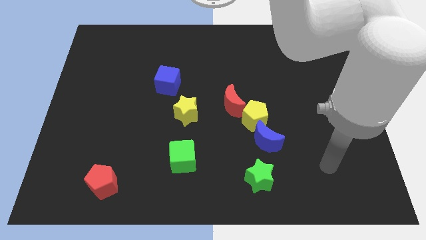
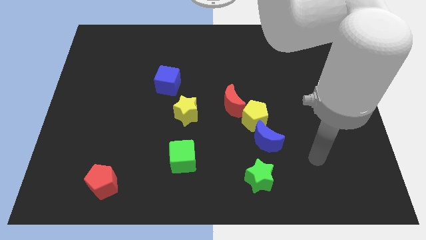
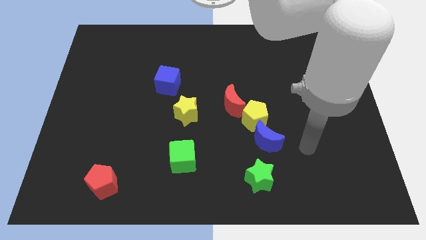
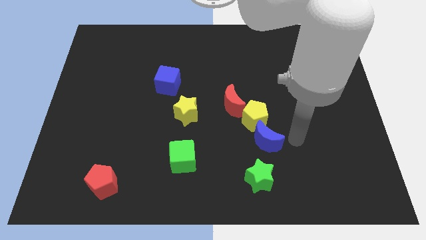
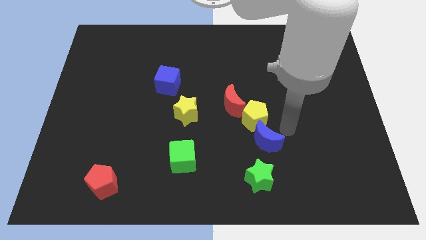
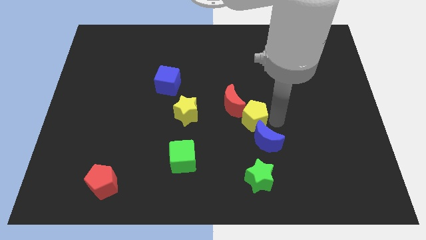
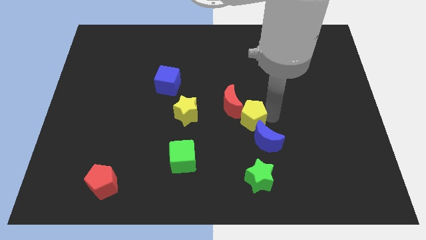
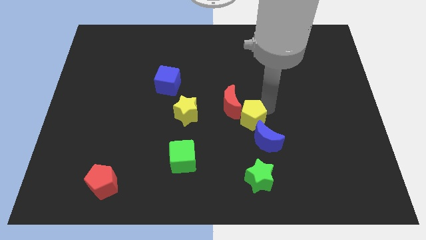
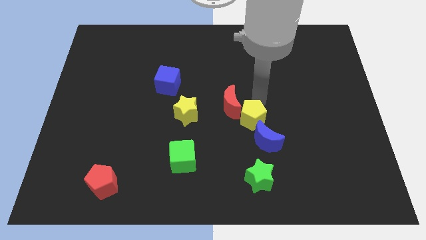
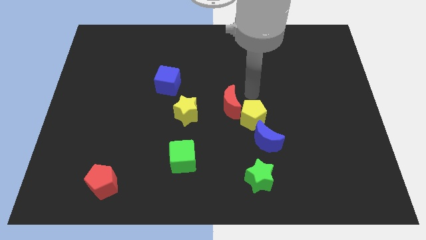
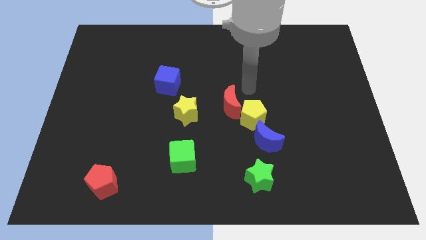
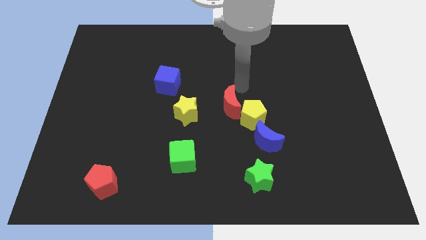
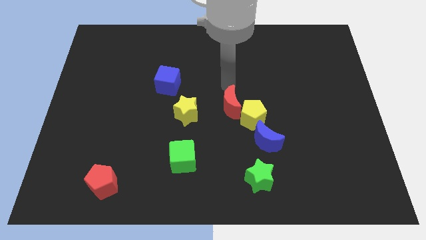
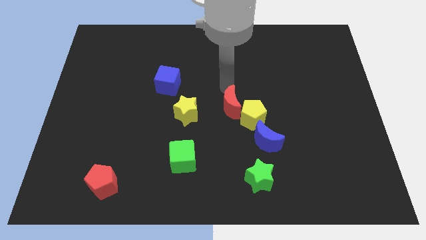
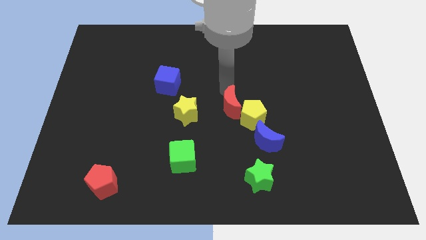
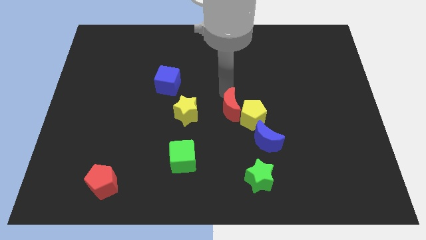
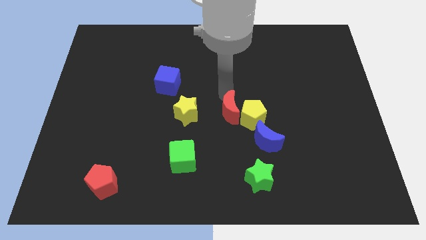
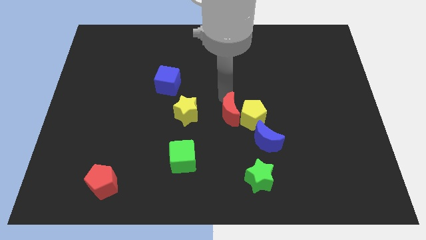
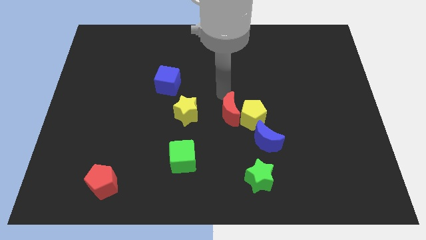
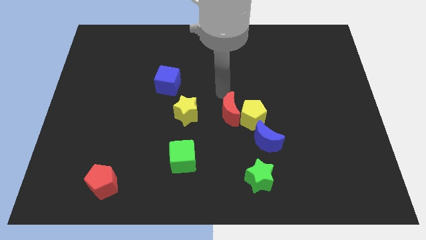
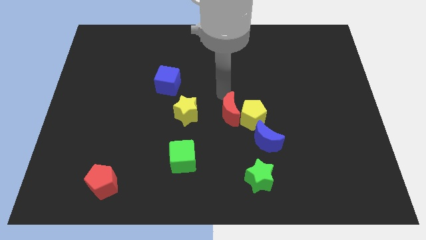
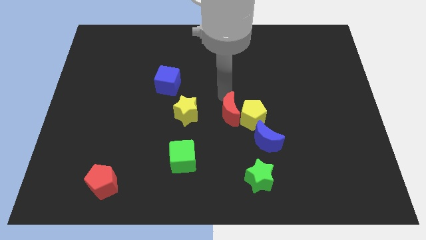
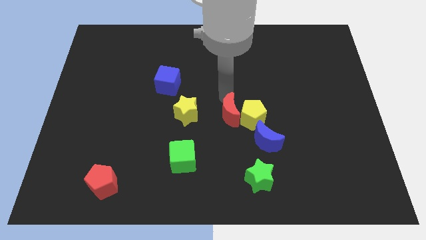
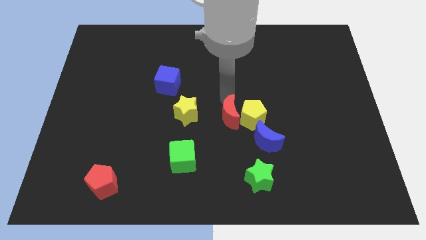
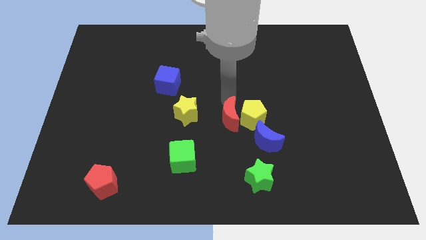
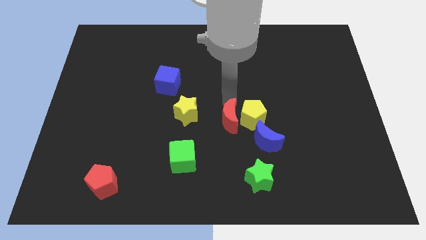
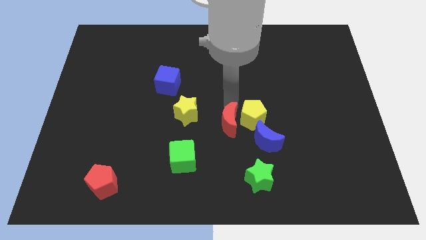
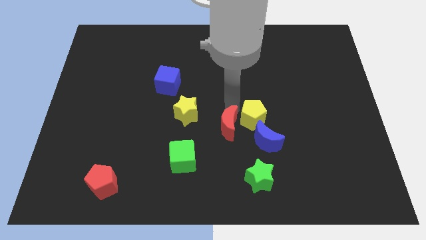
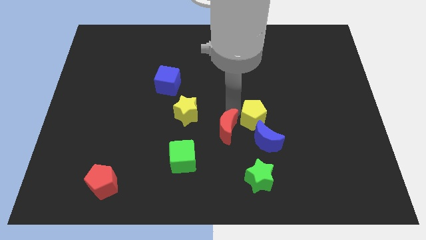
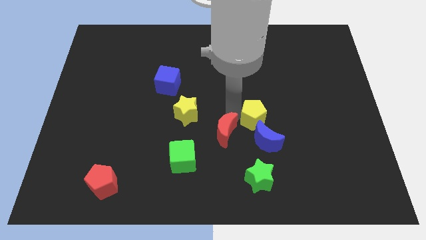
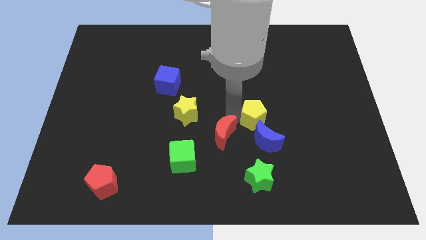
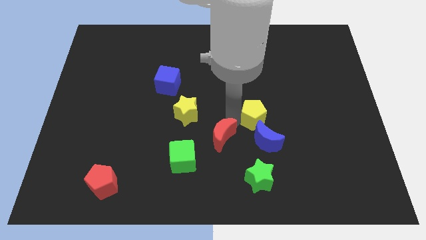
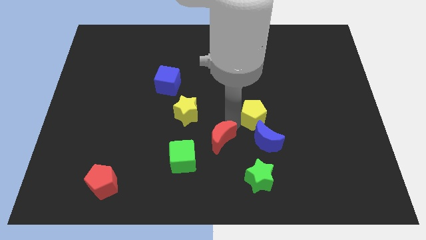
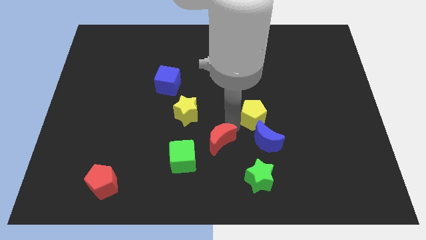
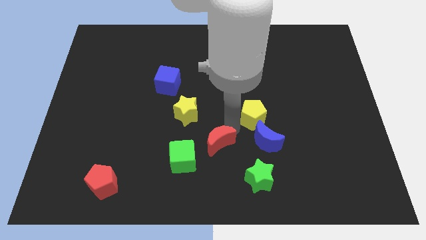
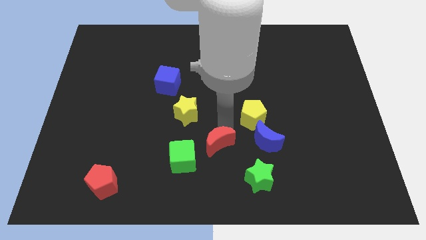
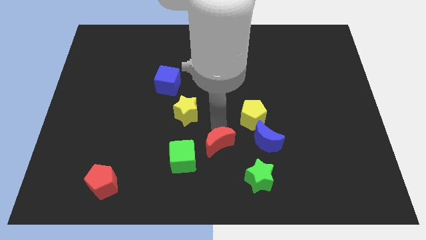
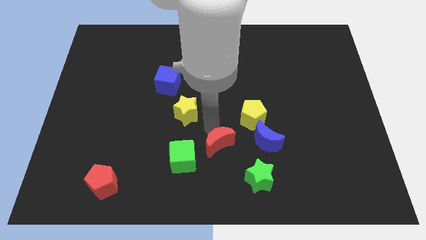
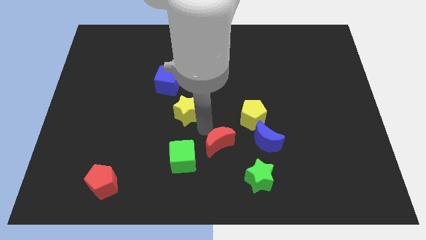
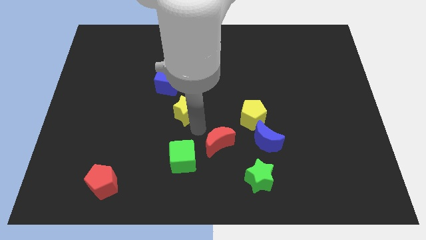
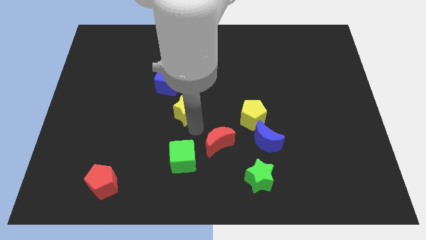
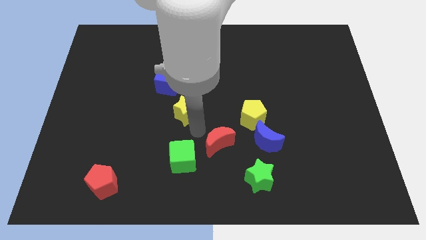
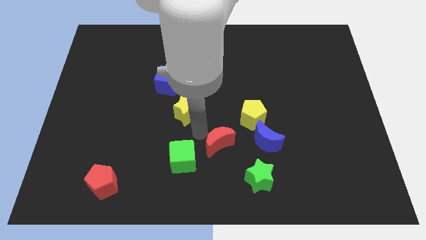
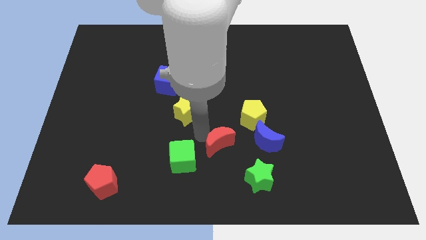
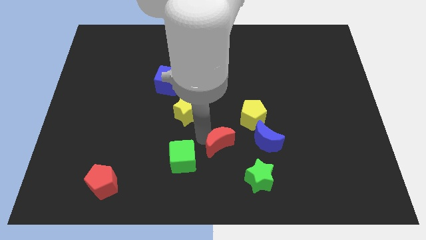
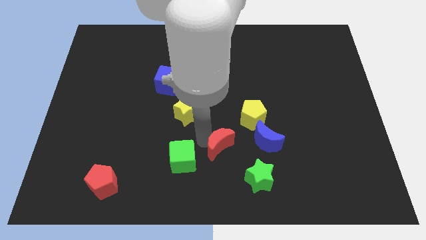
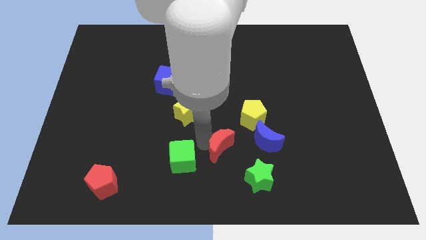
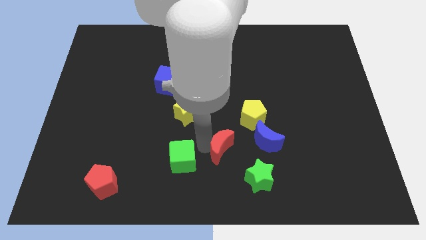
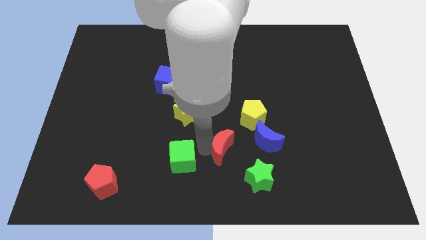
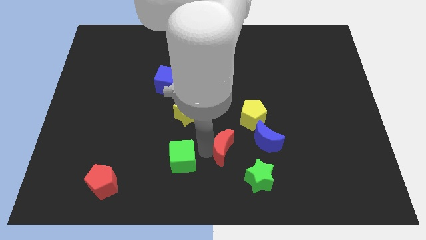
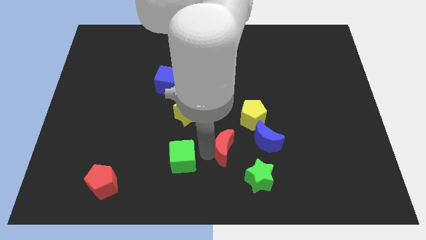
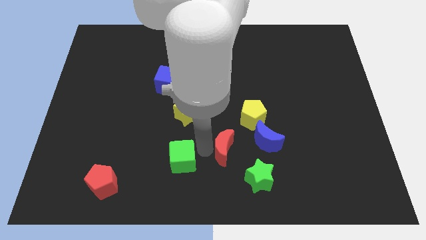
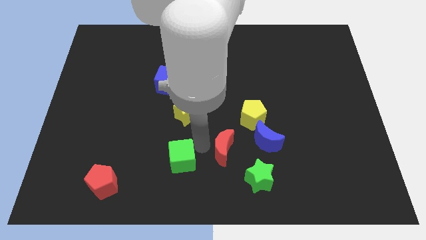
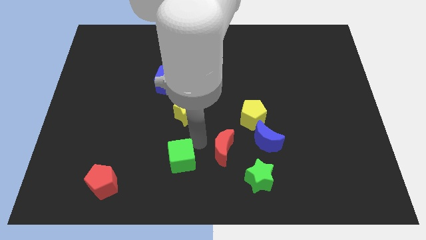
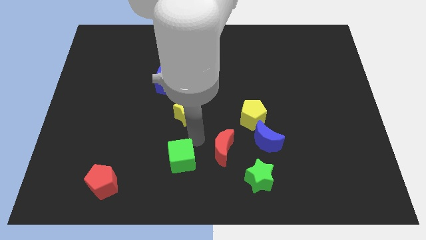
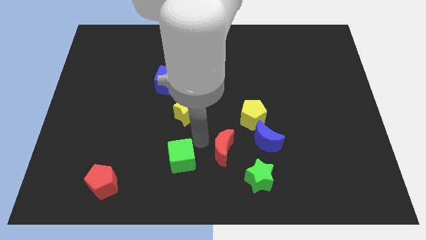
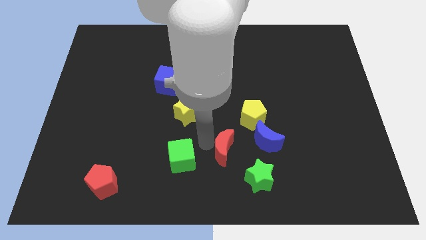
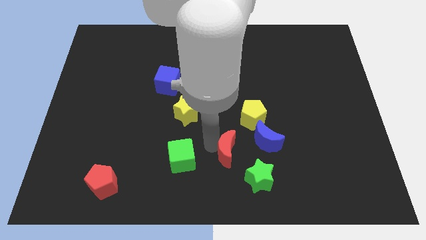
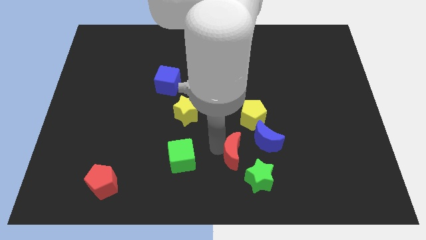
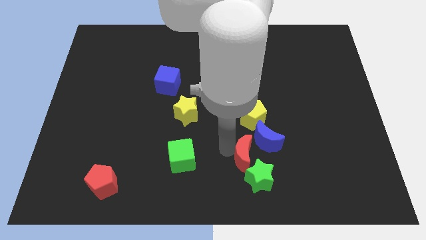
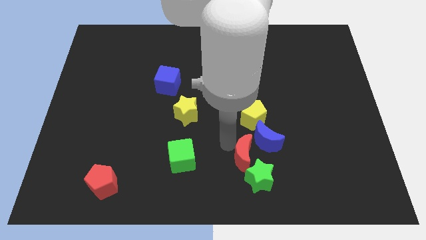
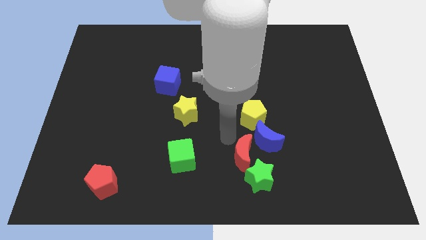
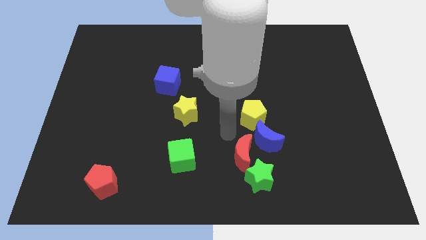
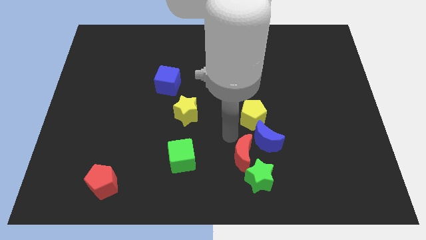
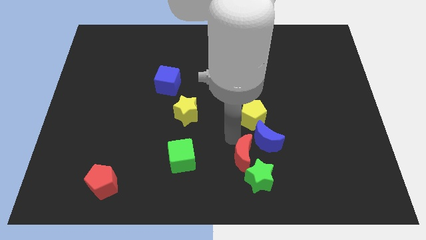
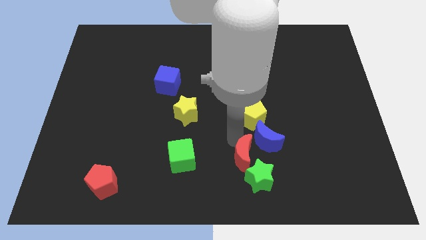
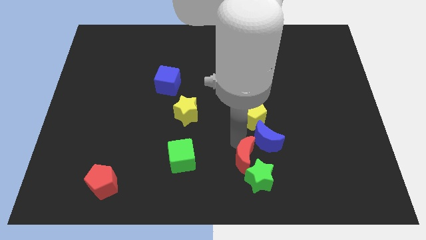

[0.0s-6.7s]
slide the red moon next to the green star
